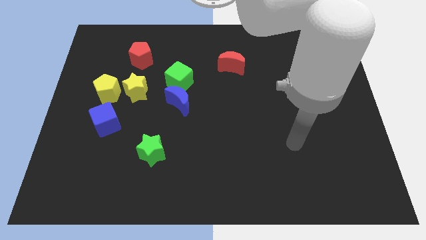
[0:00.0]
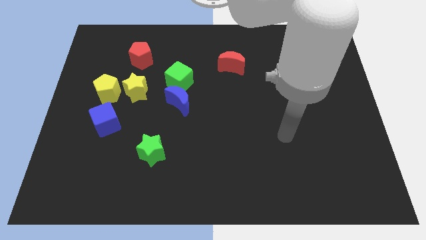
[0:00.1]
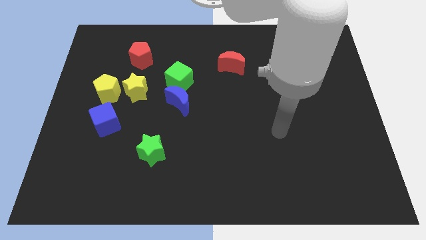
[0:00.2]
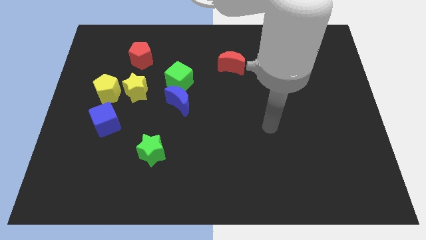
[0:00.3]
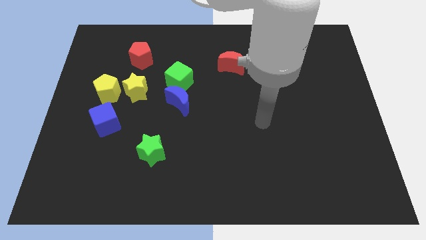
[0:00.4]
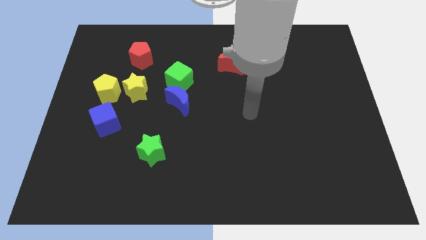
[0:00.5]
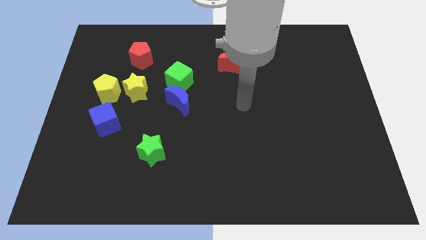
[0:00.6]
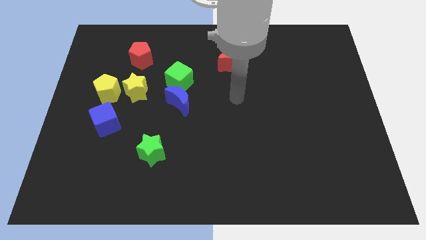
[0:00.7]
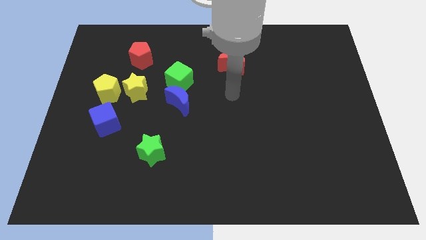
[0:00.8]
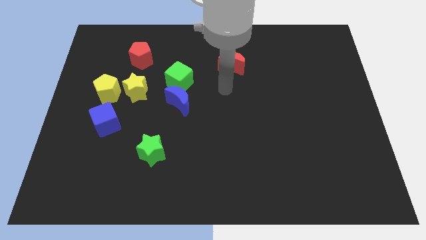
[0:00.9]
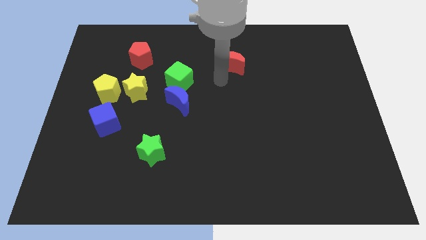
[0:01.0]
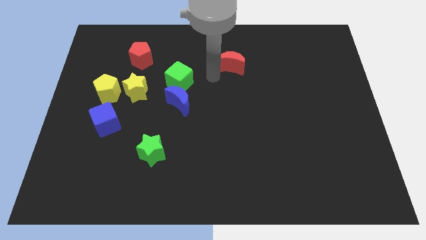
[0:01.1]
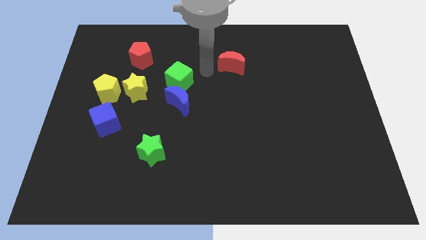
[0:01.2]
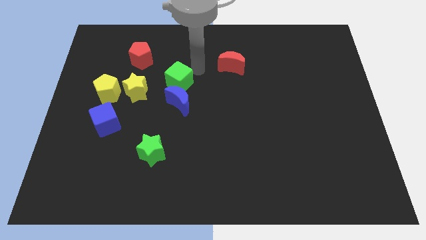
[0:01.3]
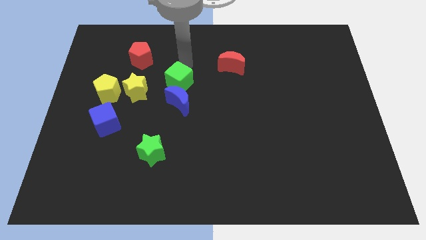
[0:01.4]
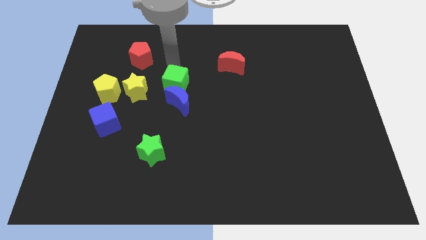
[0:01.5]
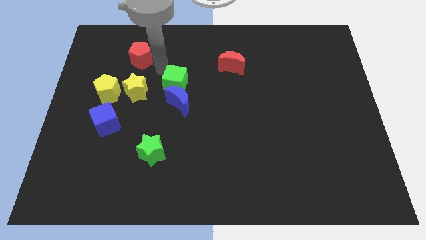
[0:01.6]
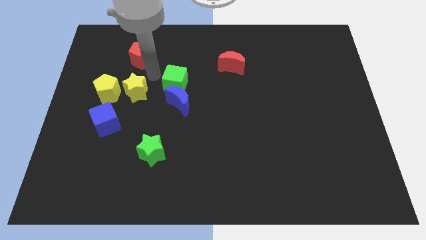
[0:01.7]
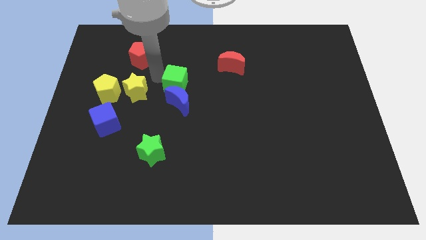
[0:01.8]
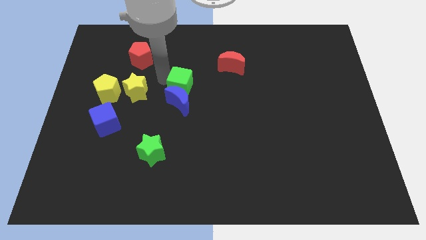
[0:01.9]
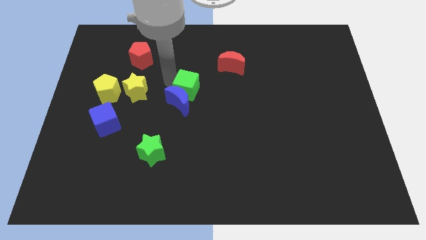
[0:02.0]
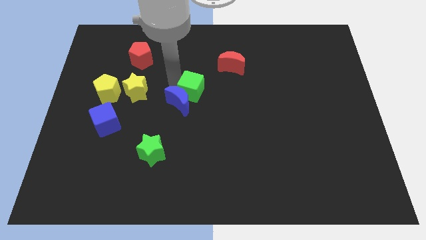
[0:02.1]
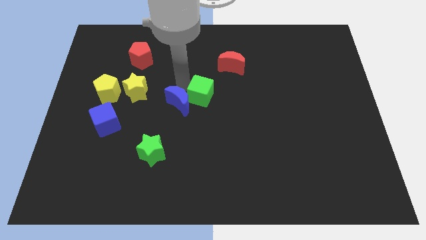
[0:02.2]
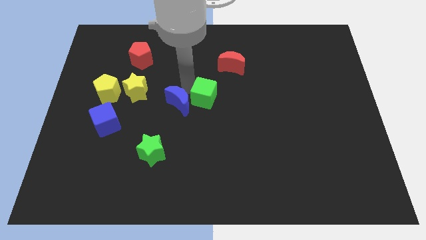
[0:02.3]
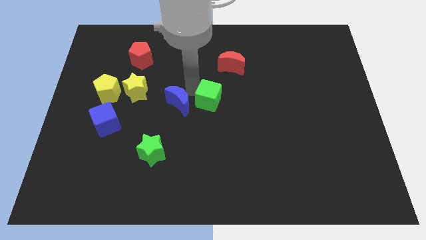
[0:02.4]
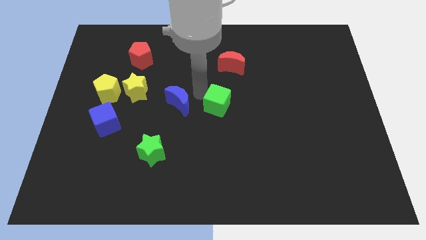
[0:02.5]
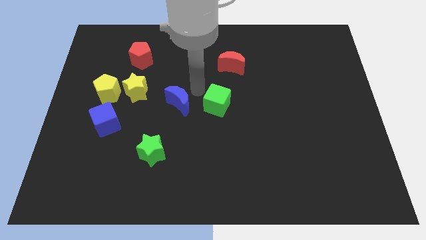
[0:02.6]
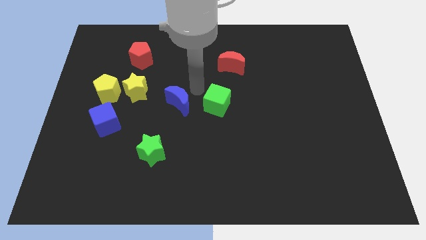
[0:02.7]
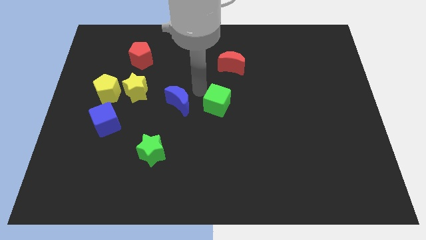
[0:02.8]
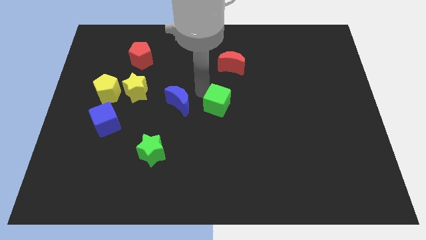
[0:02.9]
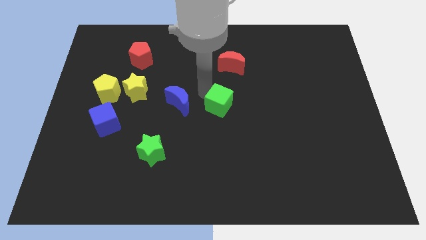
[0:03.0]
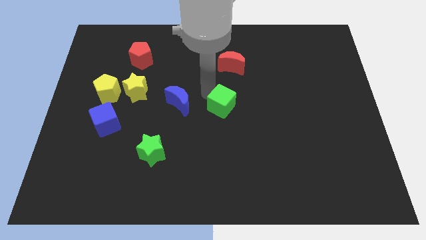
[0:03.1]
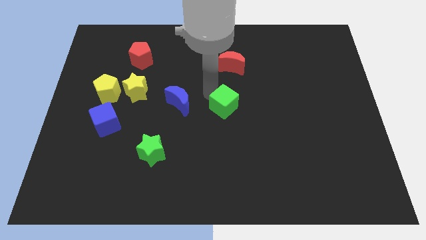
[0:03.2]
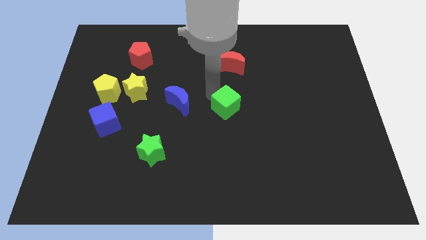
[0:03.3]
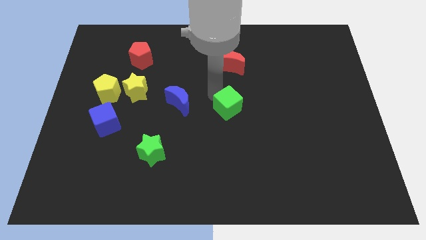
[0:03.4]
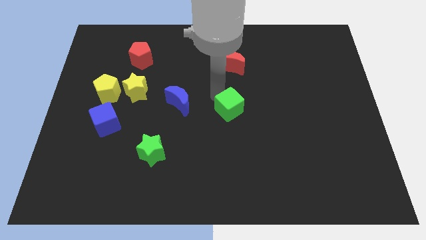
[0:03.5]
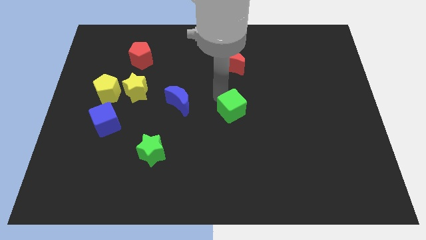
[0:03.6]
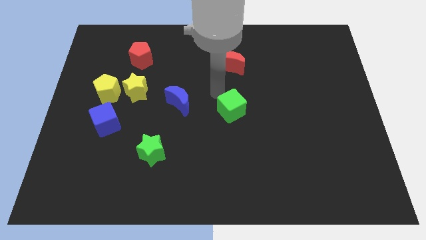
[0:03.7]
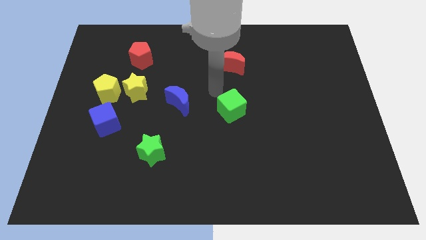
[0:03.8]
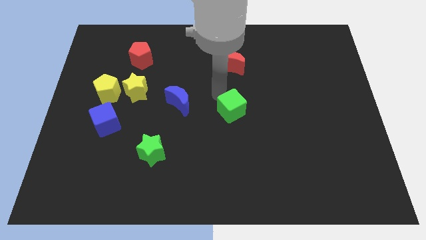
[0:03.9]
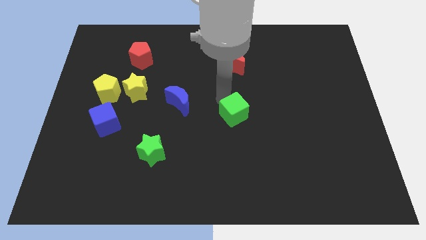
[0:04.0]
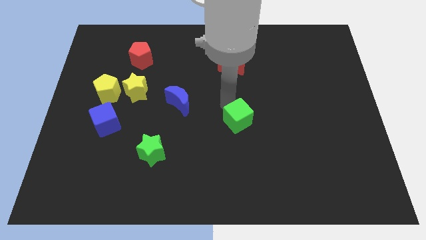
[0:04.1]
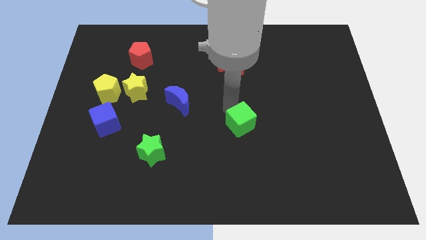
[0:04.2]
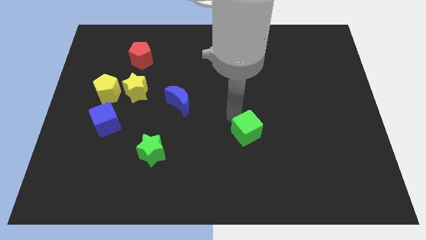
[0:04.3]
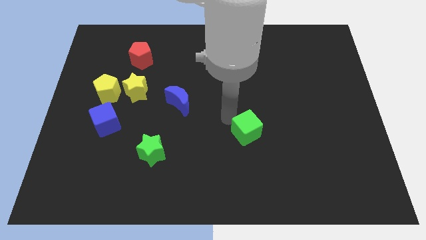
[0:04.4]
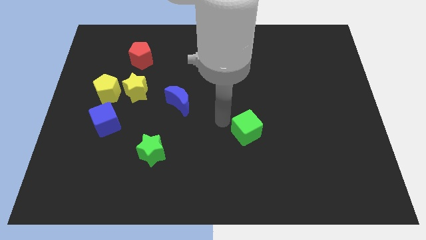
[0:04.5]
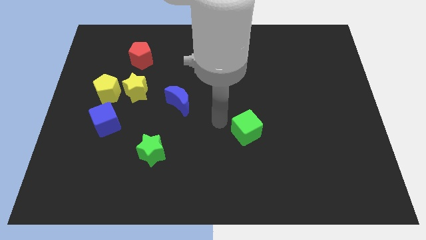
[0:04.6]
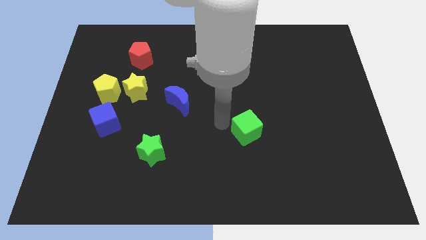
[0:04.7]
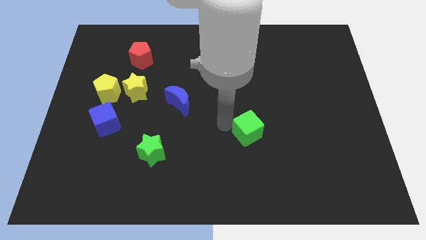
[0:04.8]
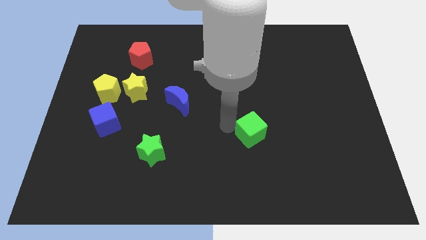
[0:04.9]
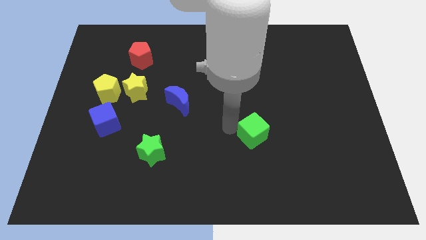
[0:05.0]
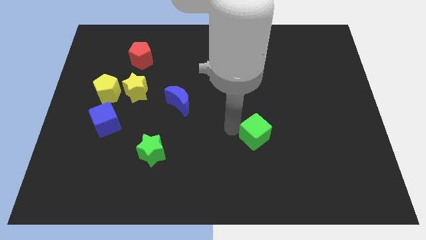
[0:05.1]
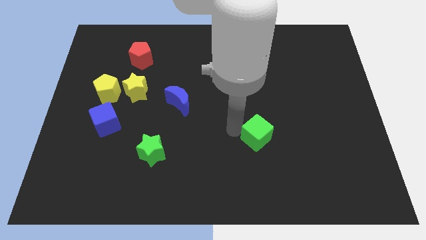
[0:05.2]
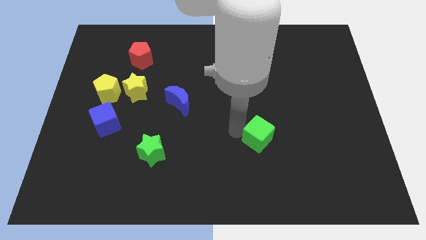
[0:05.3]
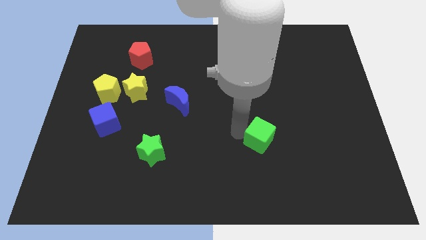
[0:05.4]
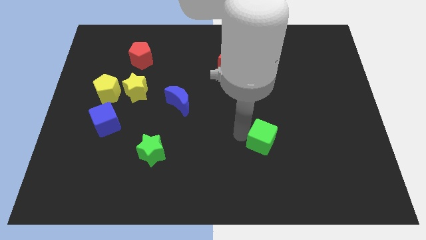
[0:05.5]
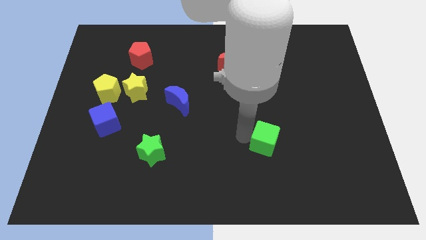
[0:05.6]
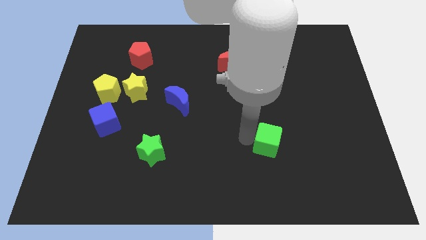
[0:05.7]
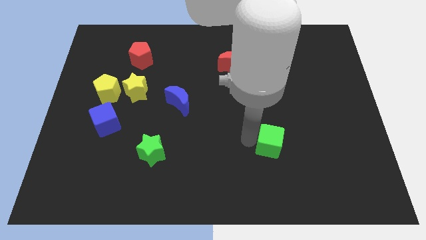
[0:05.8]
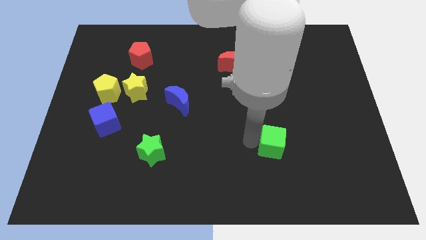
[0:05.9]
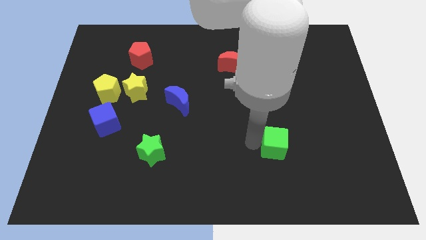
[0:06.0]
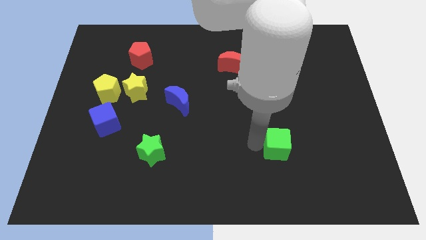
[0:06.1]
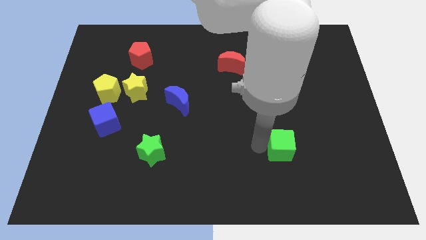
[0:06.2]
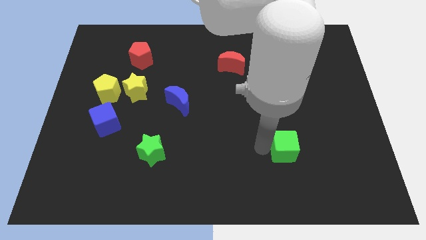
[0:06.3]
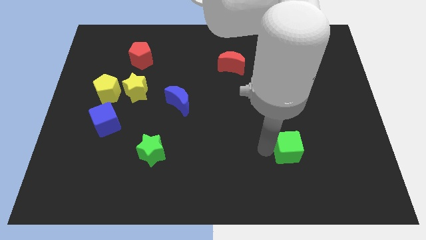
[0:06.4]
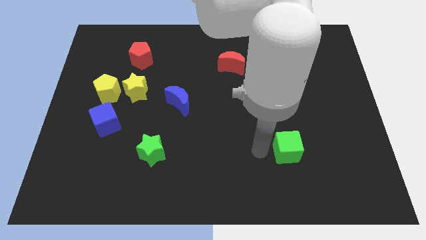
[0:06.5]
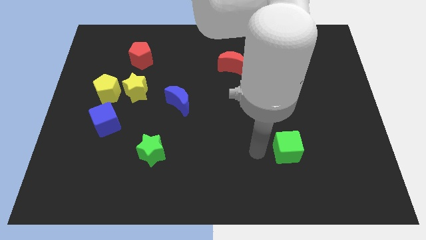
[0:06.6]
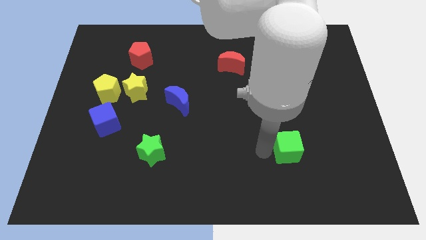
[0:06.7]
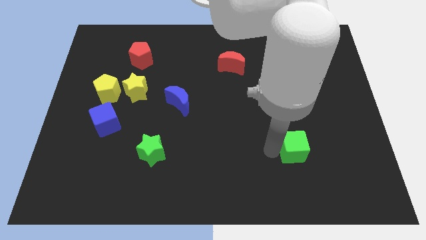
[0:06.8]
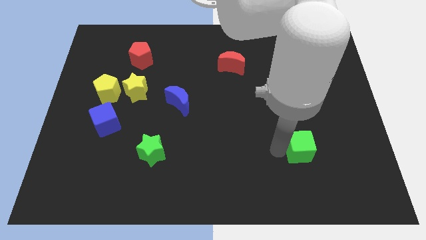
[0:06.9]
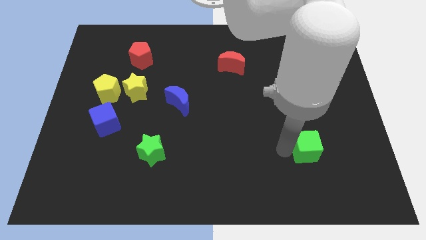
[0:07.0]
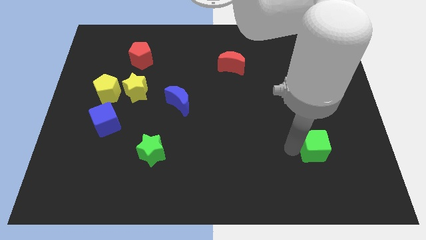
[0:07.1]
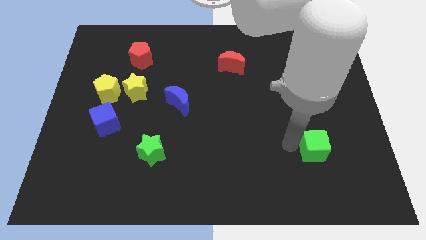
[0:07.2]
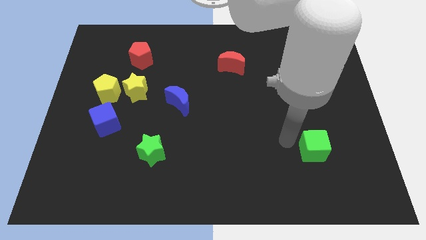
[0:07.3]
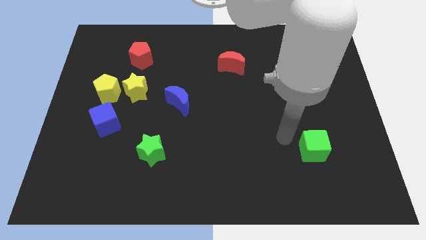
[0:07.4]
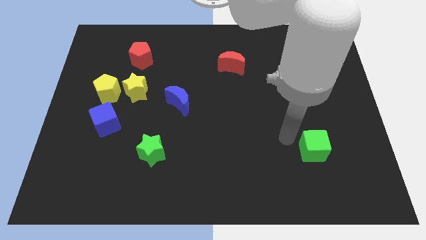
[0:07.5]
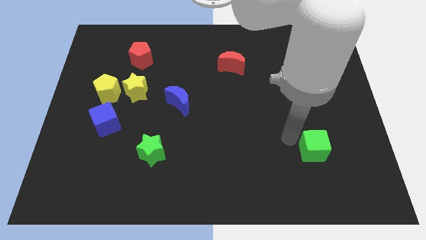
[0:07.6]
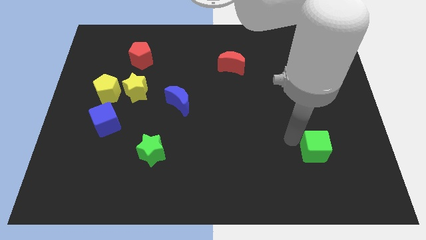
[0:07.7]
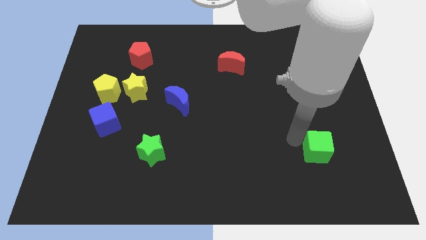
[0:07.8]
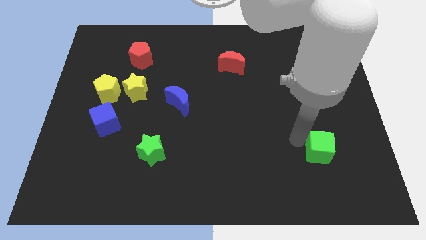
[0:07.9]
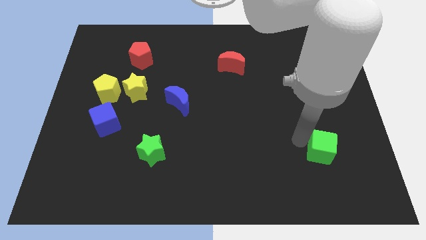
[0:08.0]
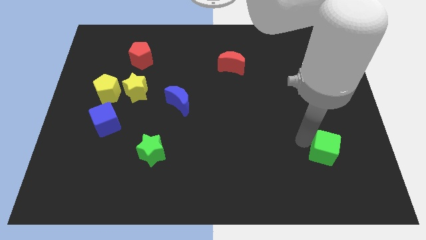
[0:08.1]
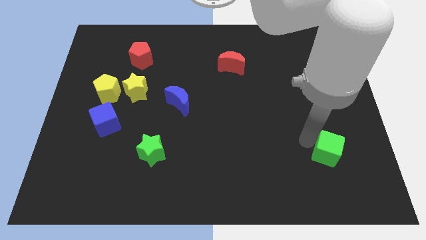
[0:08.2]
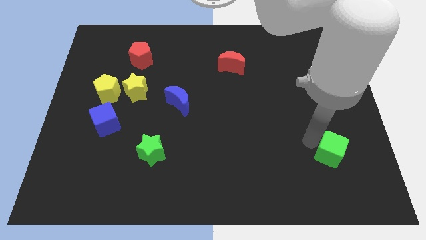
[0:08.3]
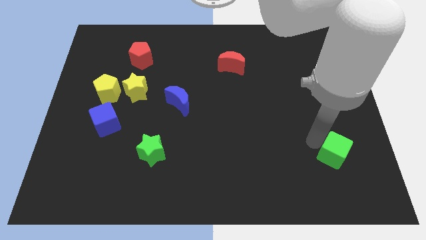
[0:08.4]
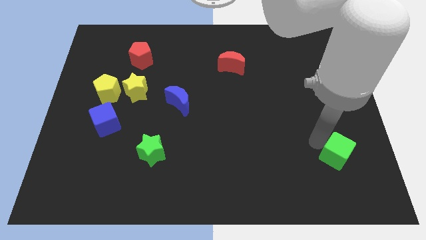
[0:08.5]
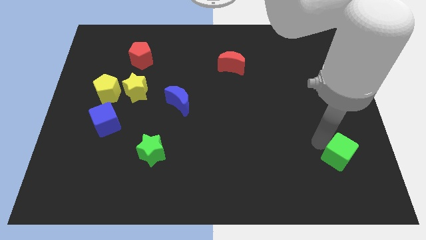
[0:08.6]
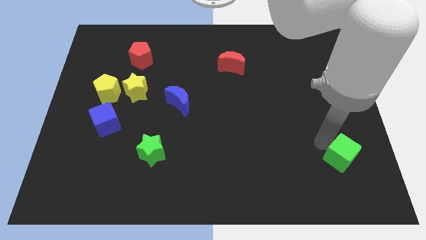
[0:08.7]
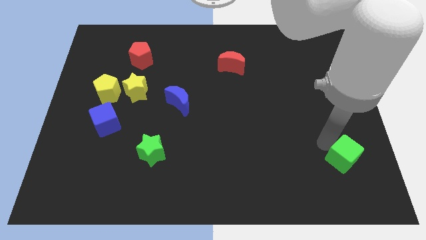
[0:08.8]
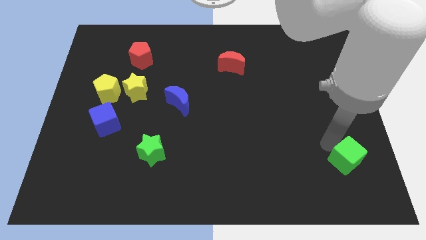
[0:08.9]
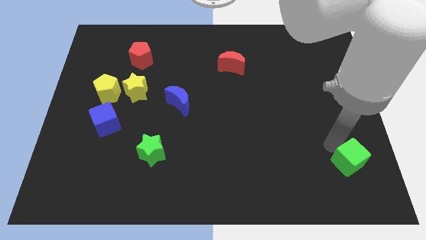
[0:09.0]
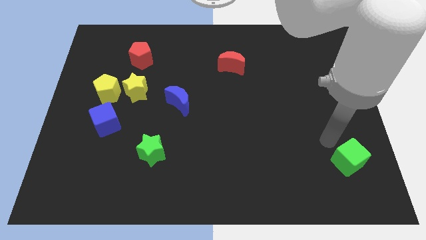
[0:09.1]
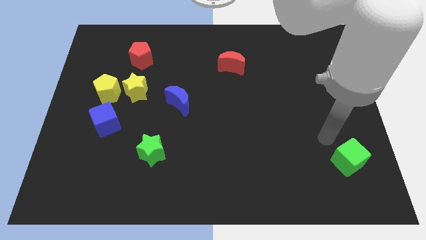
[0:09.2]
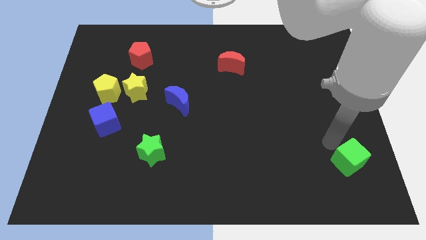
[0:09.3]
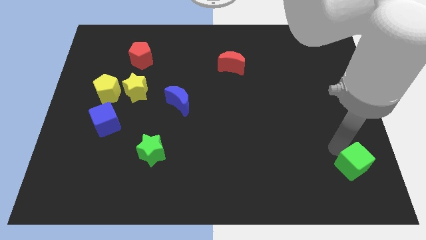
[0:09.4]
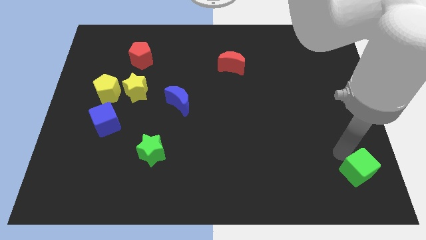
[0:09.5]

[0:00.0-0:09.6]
slide the green cube to the bottom right corner
